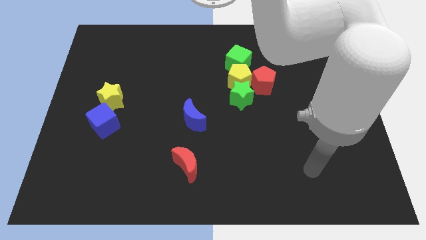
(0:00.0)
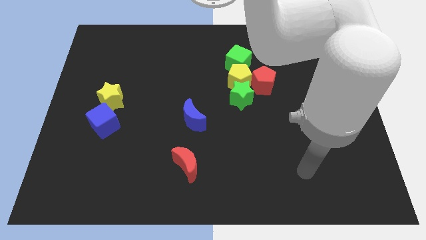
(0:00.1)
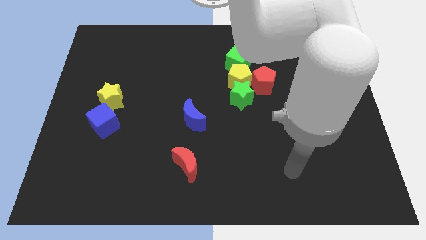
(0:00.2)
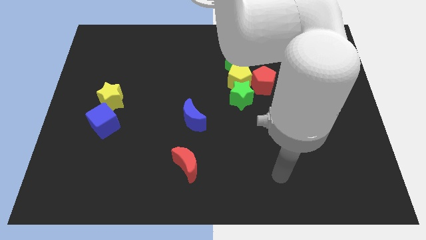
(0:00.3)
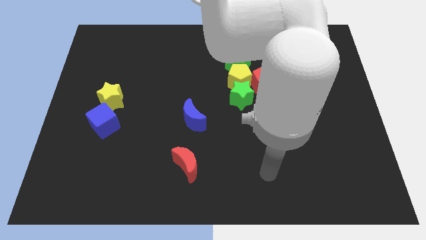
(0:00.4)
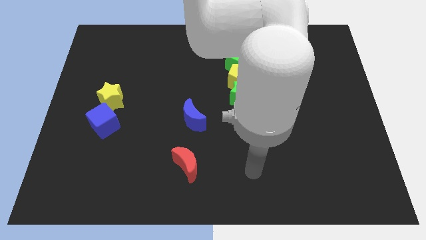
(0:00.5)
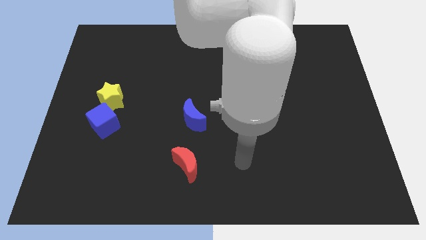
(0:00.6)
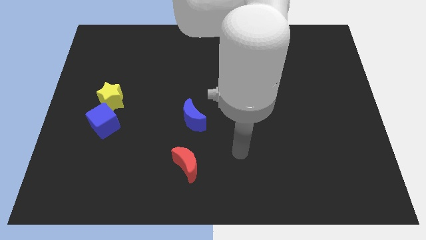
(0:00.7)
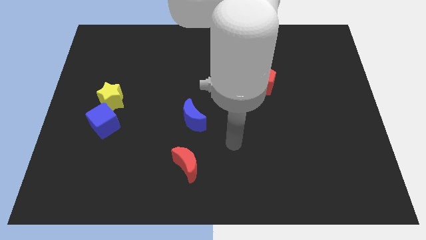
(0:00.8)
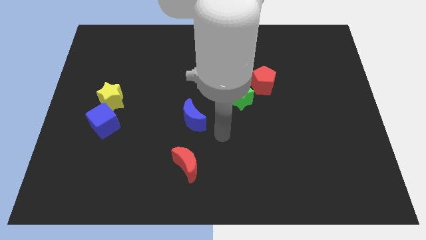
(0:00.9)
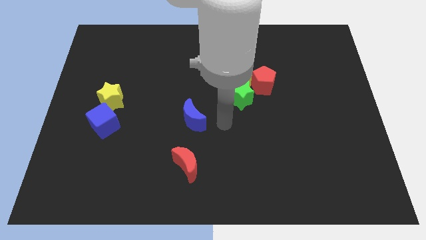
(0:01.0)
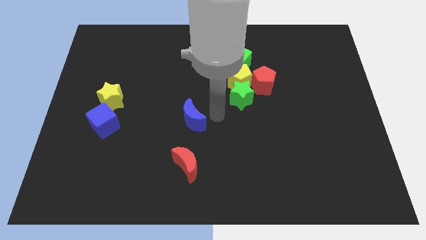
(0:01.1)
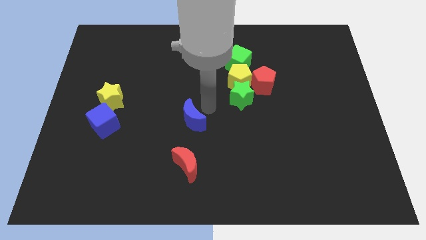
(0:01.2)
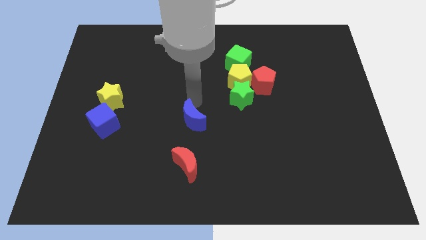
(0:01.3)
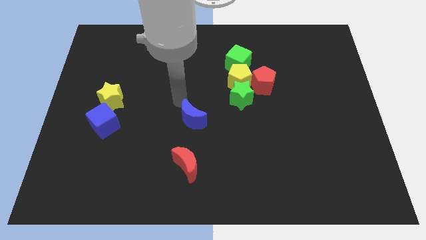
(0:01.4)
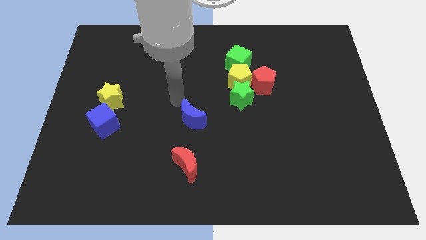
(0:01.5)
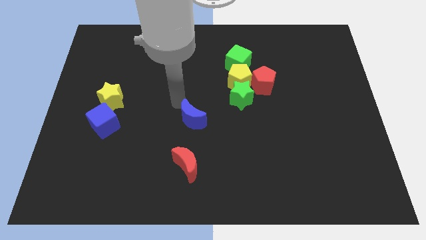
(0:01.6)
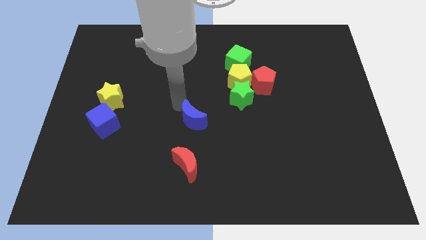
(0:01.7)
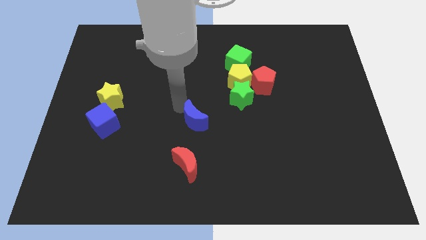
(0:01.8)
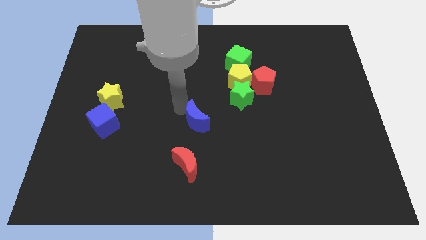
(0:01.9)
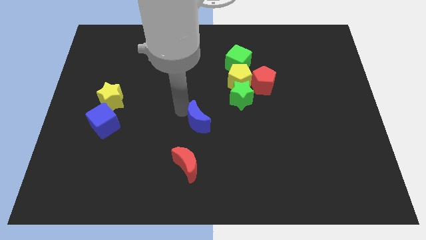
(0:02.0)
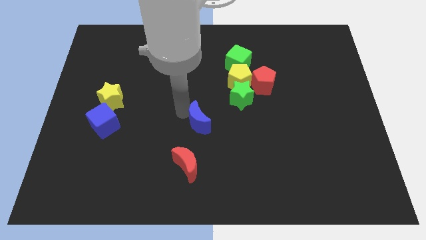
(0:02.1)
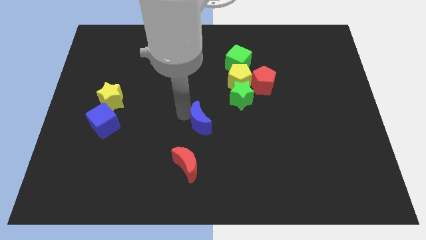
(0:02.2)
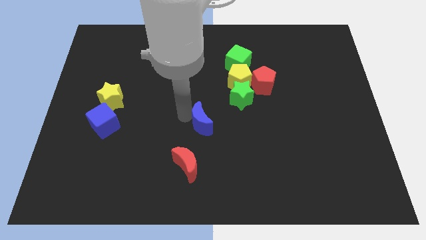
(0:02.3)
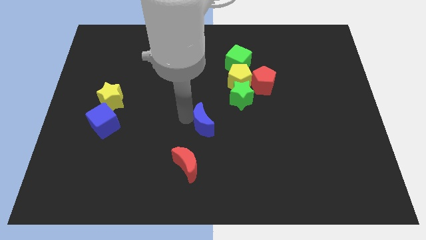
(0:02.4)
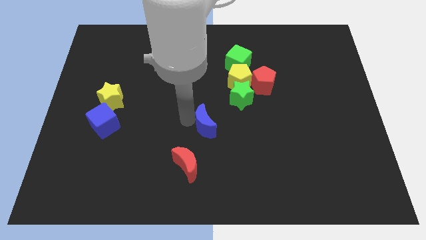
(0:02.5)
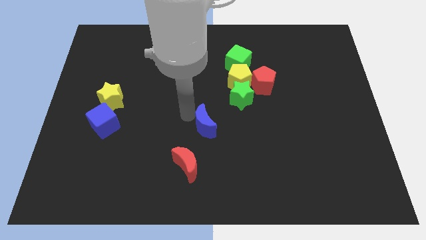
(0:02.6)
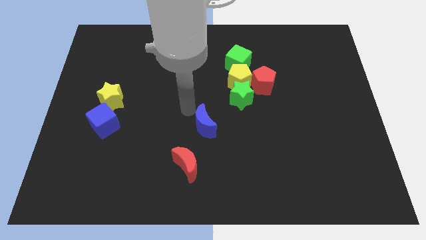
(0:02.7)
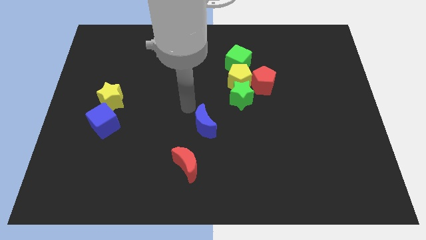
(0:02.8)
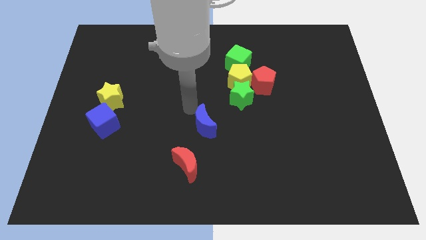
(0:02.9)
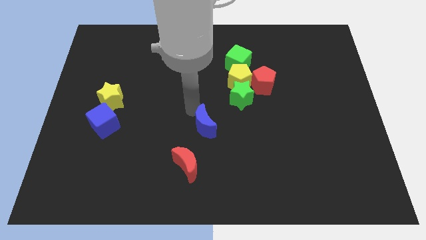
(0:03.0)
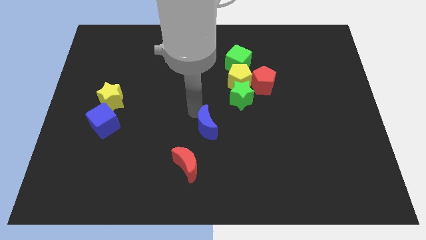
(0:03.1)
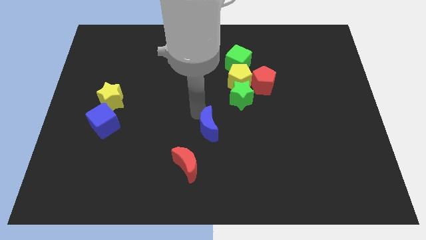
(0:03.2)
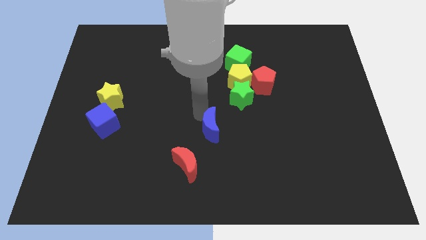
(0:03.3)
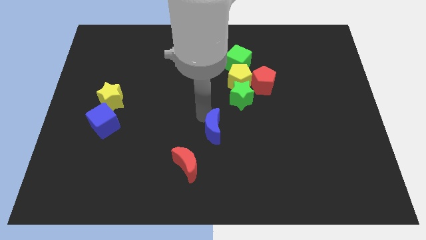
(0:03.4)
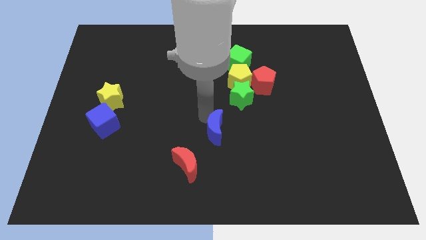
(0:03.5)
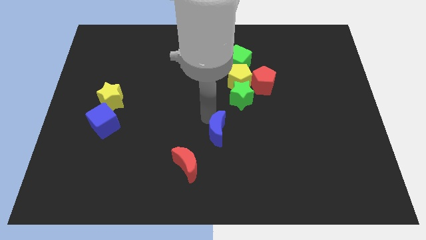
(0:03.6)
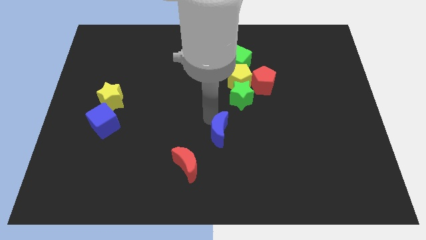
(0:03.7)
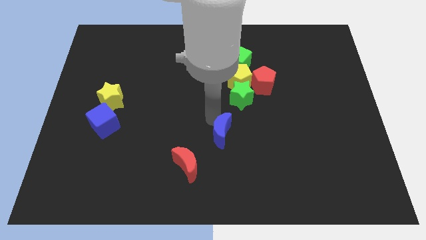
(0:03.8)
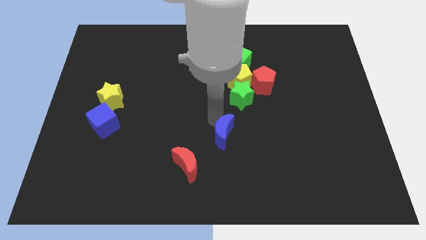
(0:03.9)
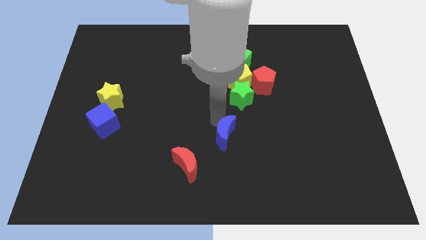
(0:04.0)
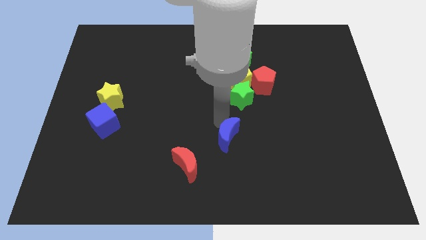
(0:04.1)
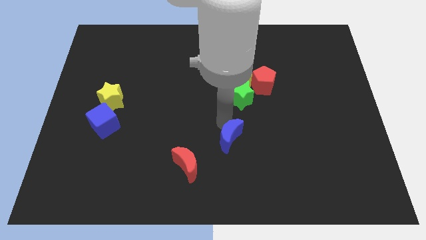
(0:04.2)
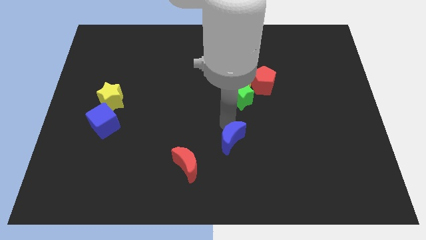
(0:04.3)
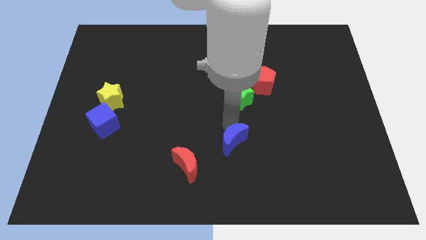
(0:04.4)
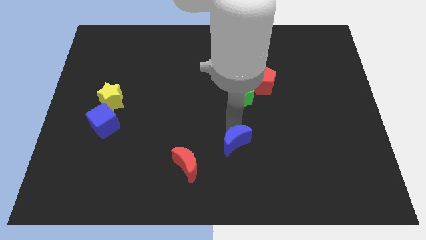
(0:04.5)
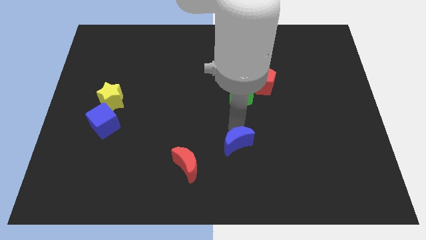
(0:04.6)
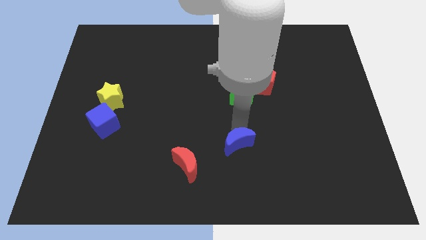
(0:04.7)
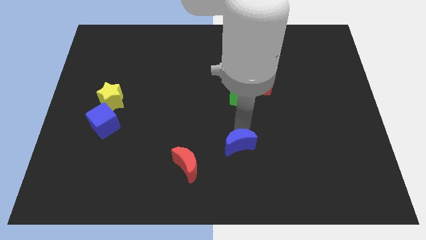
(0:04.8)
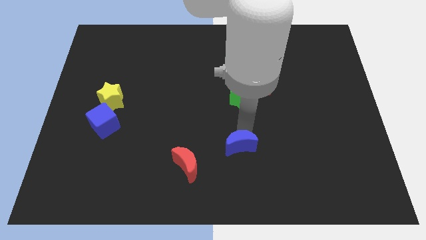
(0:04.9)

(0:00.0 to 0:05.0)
push the blue moon to the right of the red moon

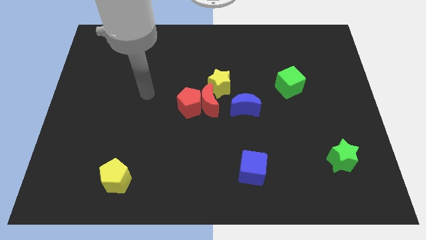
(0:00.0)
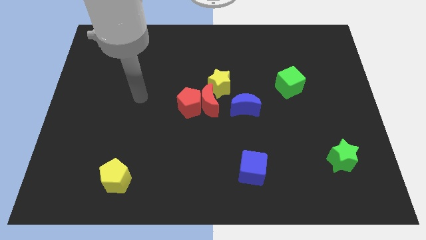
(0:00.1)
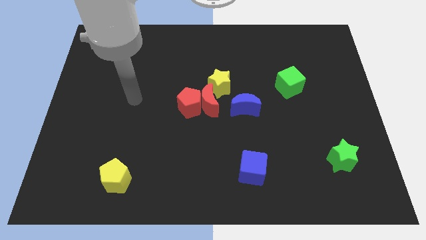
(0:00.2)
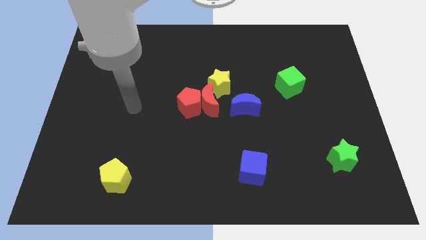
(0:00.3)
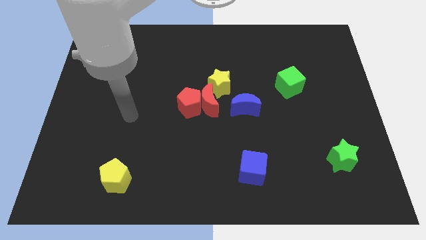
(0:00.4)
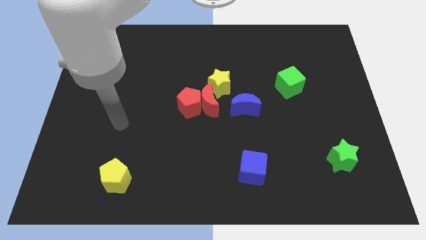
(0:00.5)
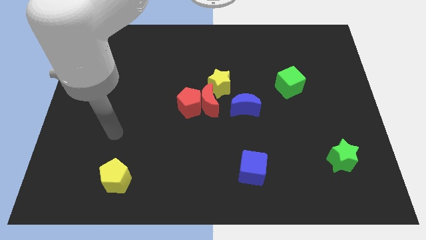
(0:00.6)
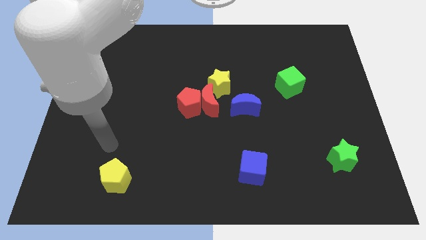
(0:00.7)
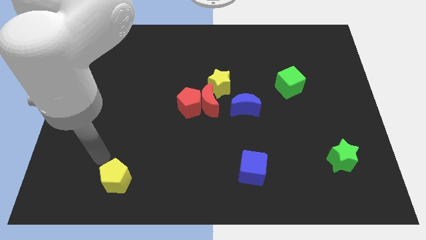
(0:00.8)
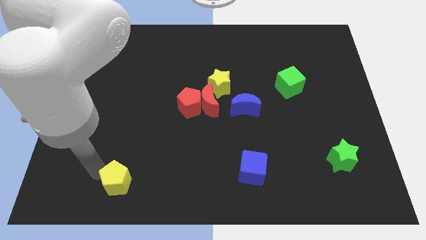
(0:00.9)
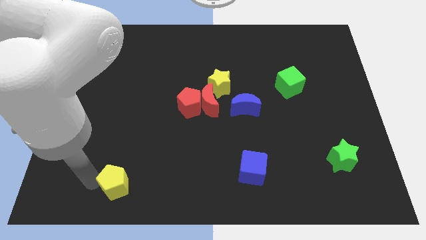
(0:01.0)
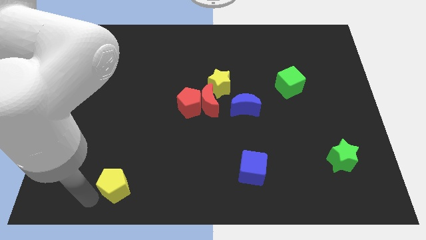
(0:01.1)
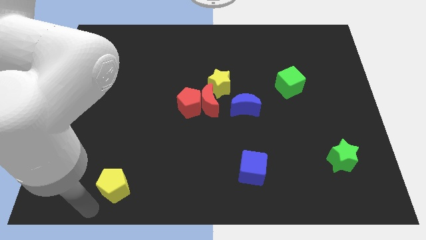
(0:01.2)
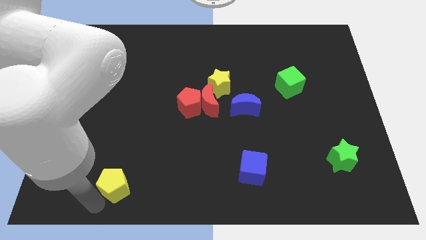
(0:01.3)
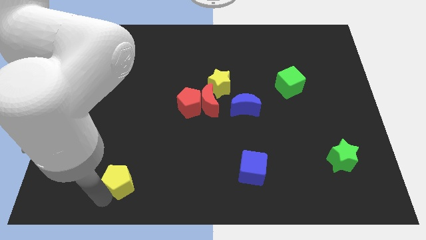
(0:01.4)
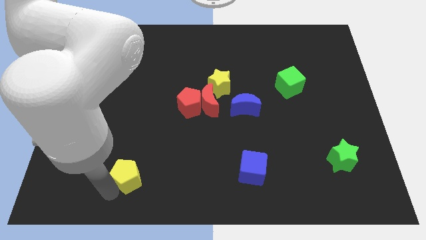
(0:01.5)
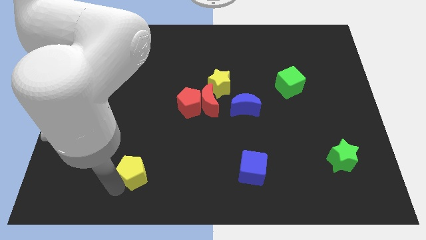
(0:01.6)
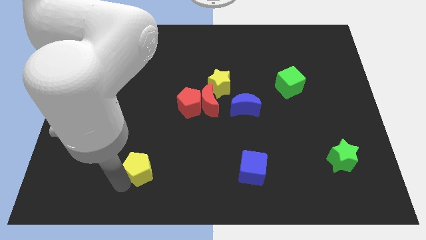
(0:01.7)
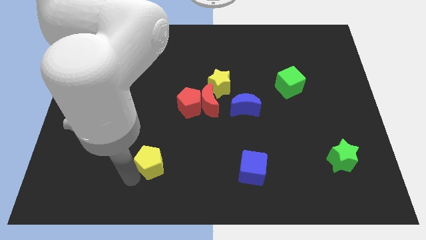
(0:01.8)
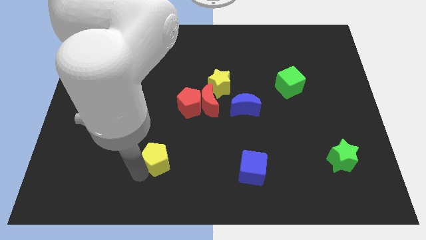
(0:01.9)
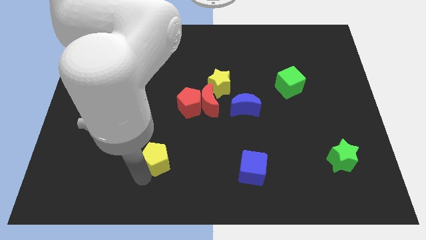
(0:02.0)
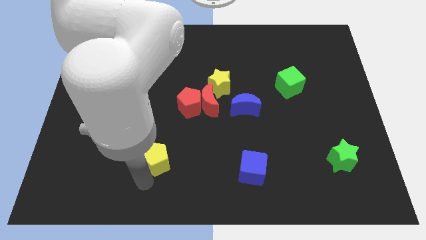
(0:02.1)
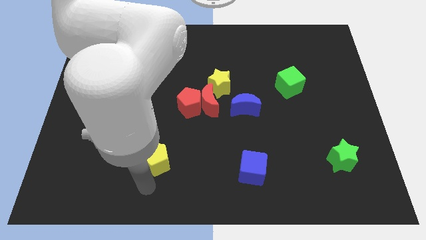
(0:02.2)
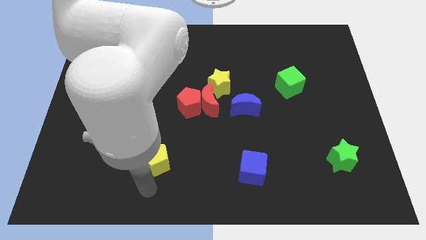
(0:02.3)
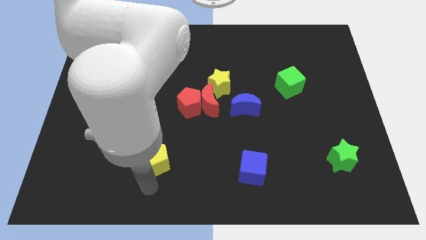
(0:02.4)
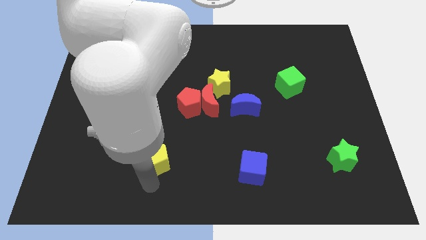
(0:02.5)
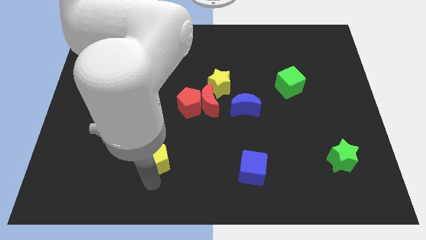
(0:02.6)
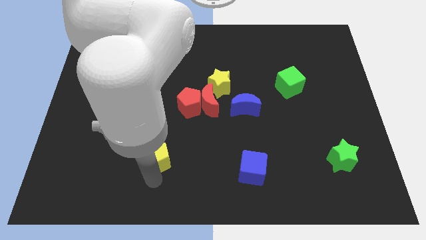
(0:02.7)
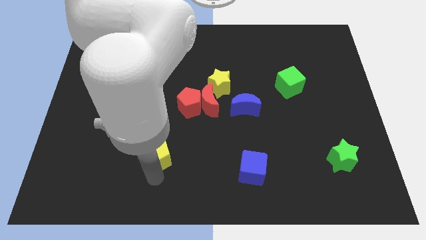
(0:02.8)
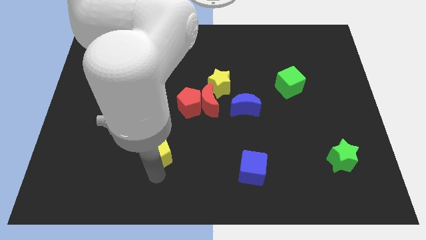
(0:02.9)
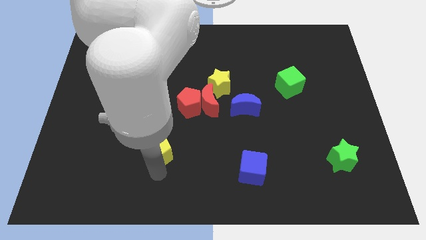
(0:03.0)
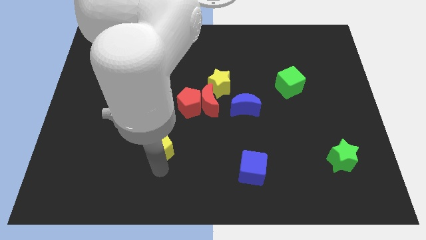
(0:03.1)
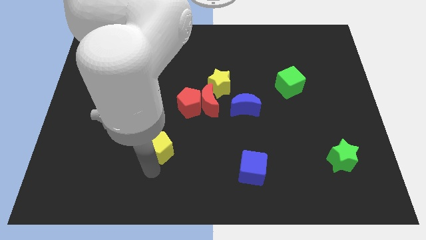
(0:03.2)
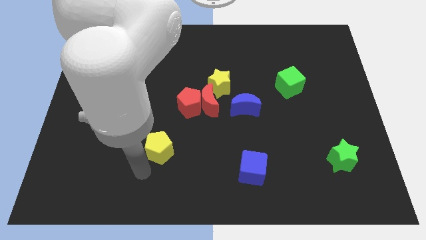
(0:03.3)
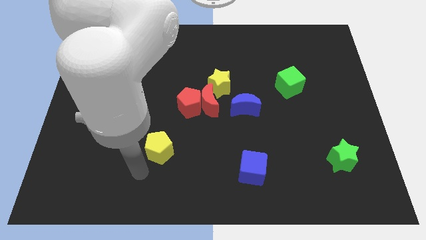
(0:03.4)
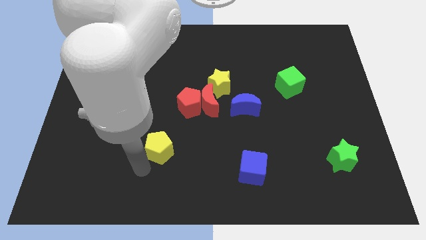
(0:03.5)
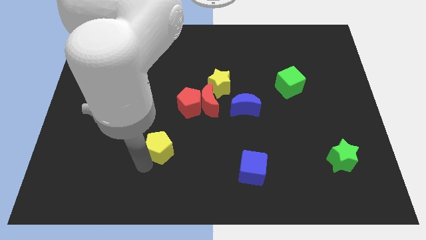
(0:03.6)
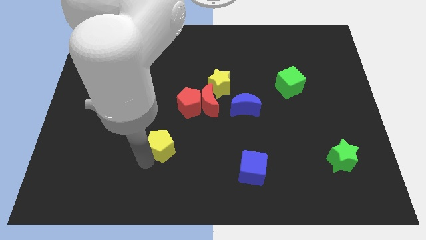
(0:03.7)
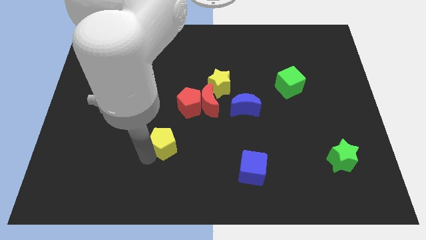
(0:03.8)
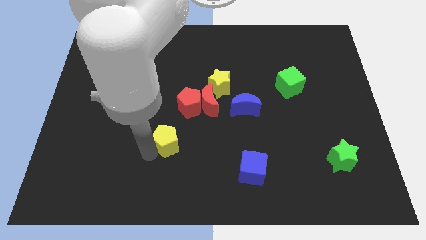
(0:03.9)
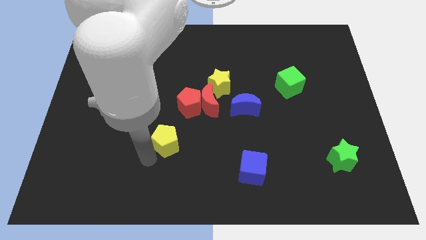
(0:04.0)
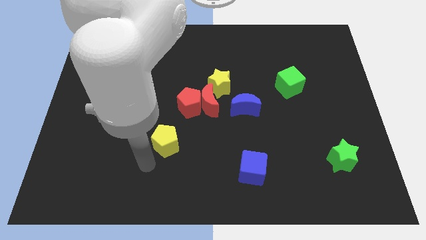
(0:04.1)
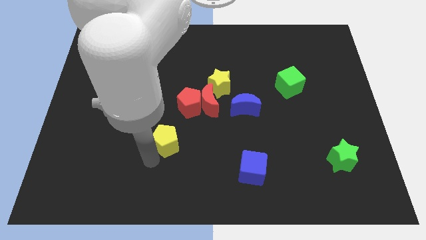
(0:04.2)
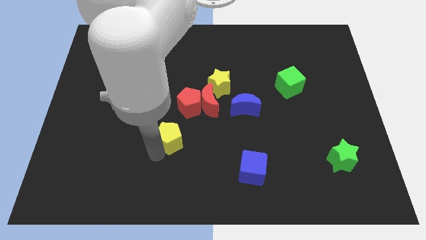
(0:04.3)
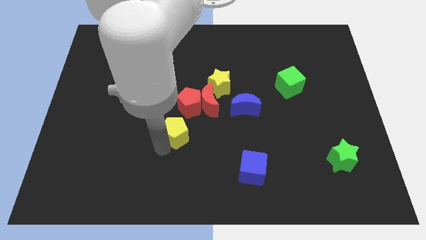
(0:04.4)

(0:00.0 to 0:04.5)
move the yellow pentagon to the bottom left side of the red moon
